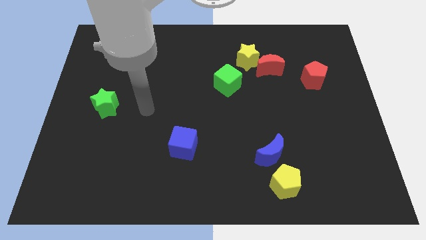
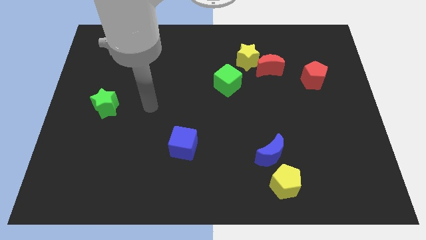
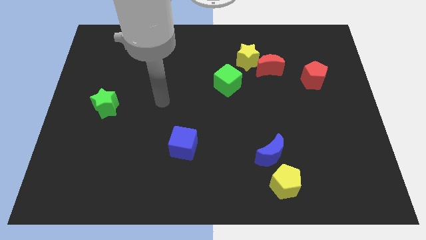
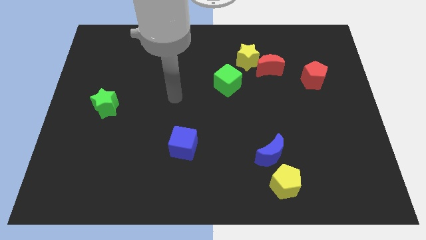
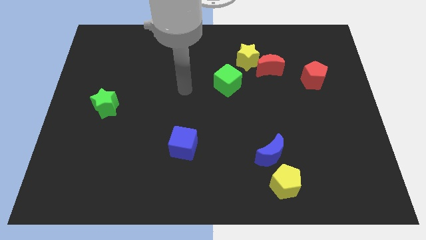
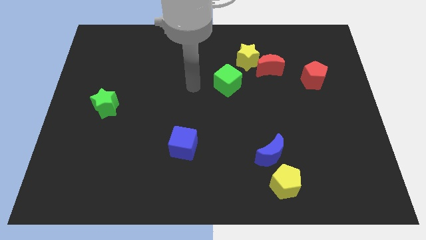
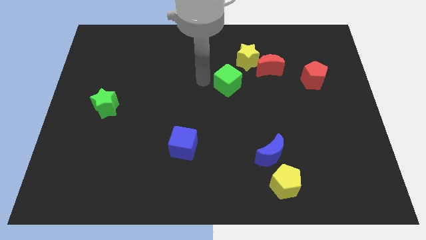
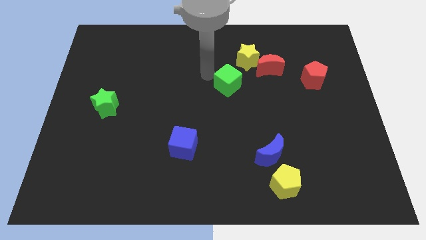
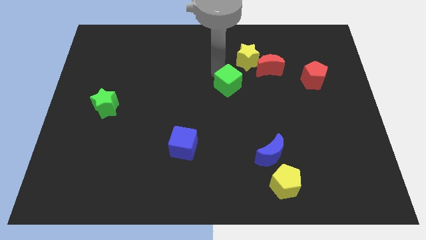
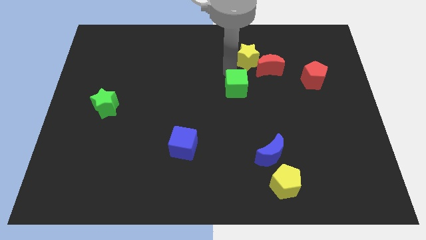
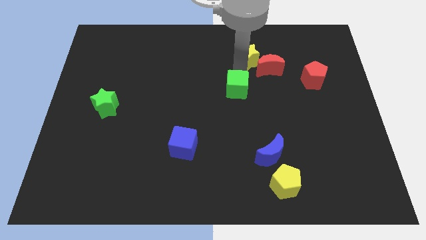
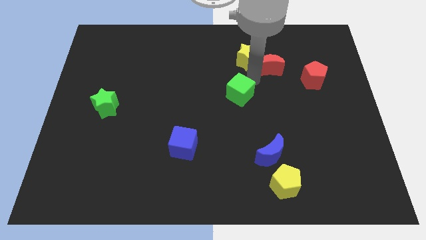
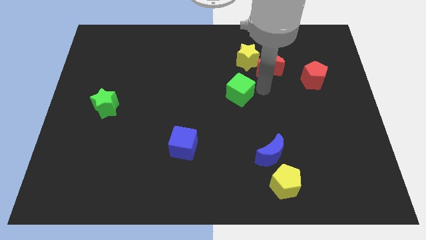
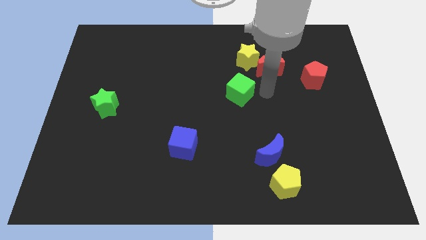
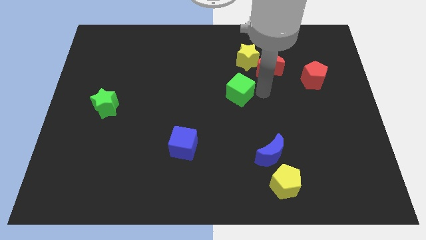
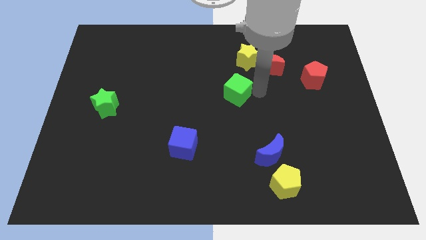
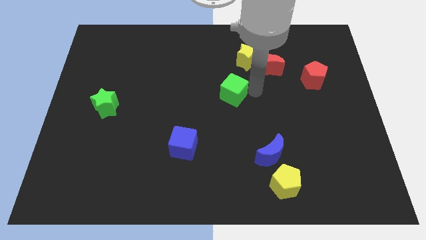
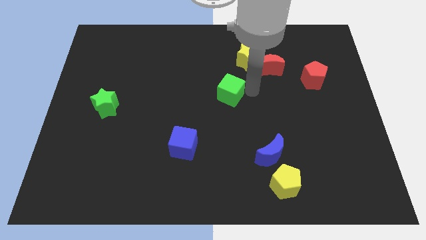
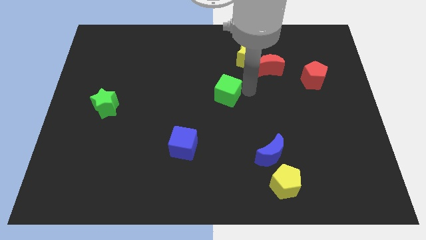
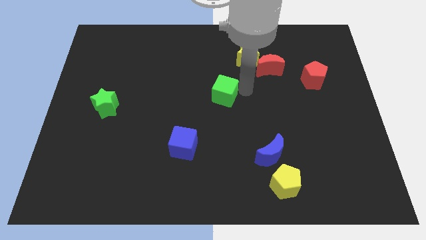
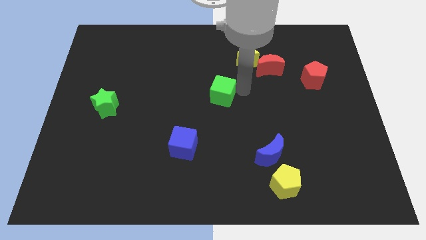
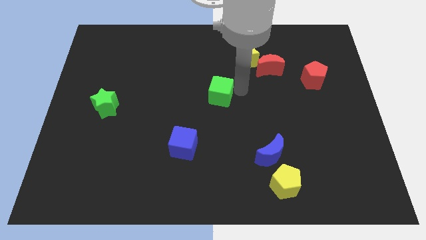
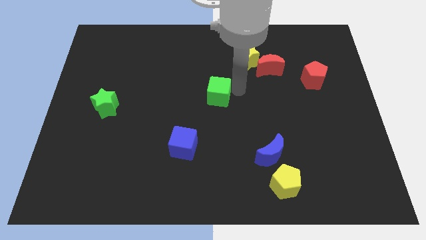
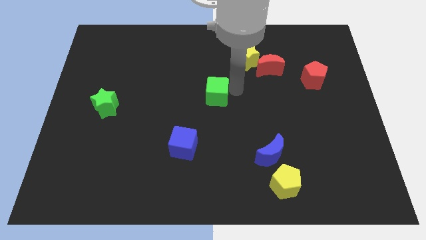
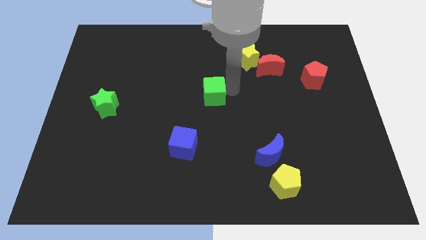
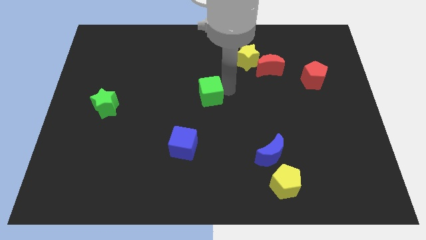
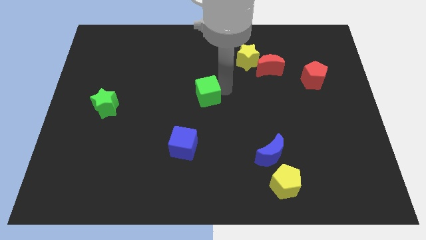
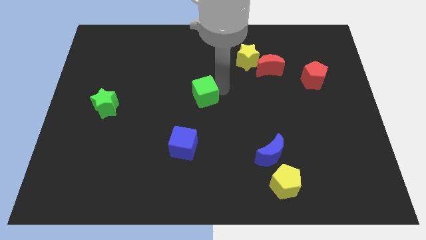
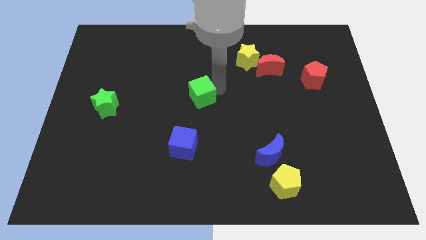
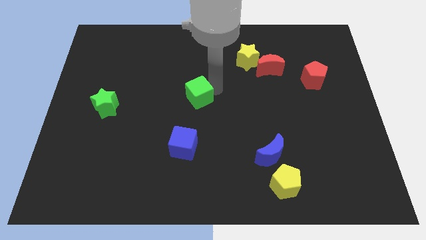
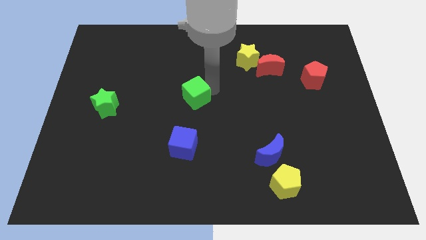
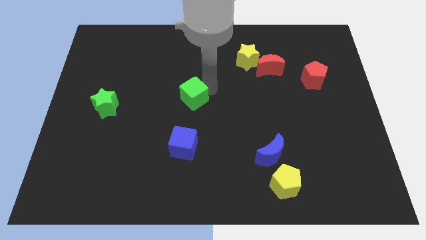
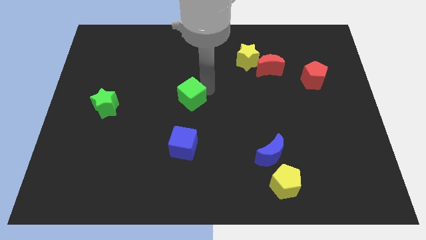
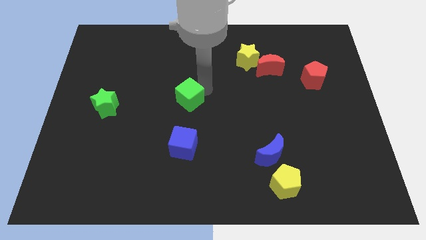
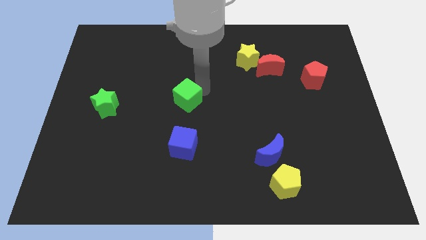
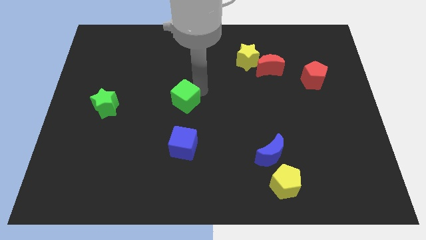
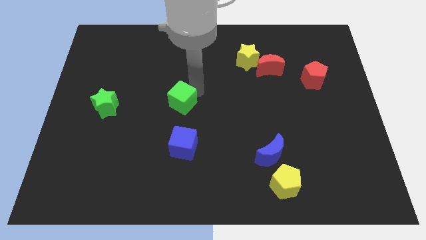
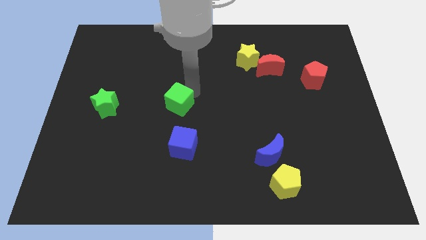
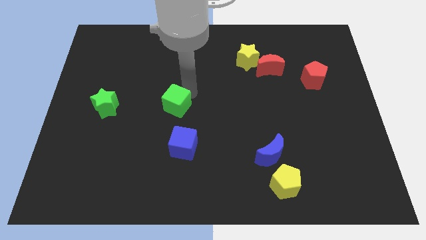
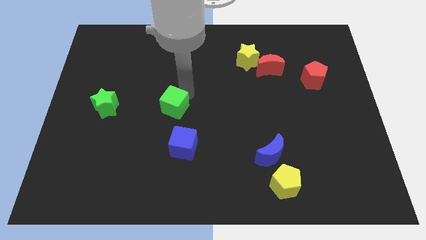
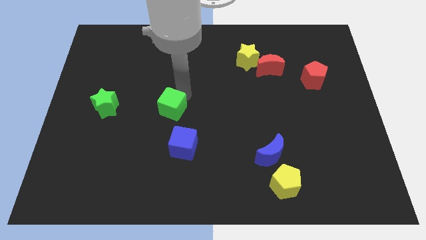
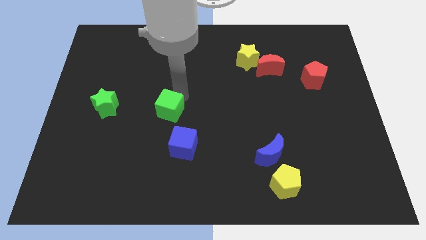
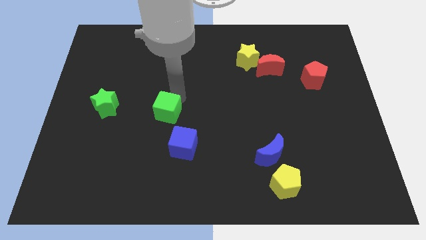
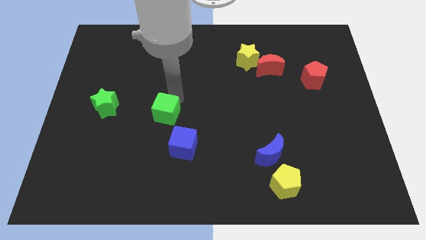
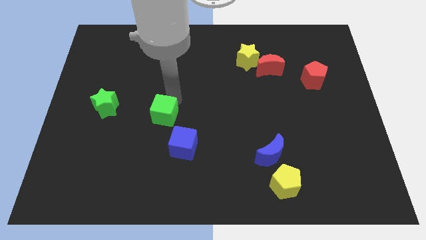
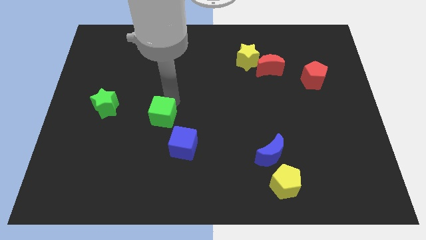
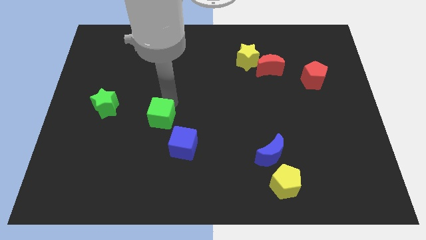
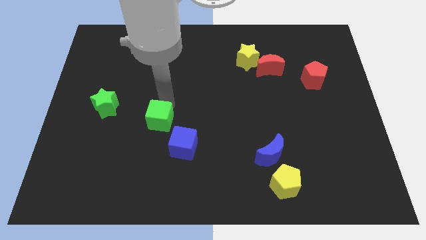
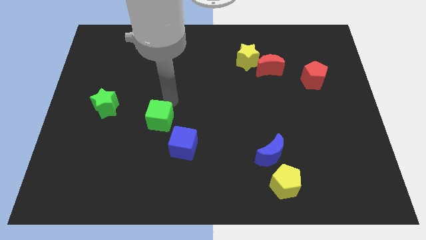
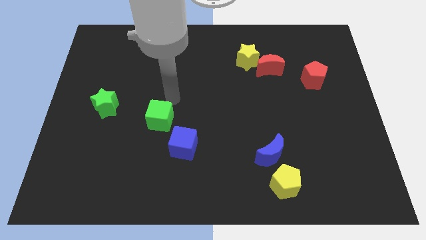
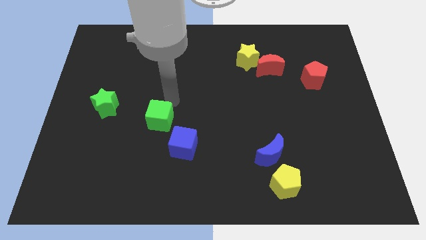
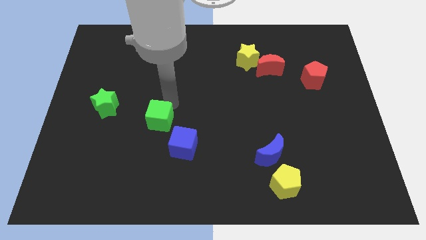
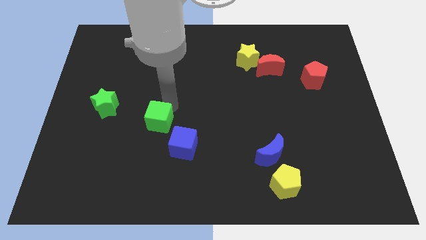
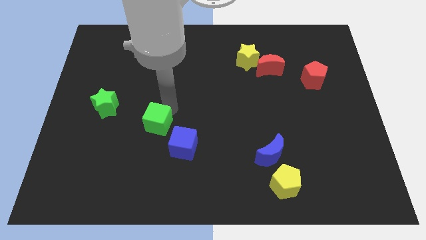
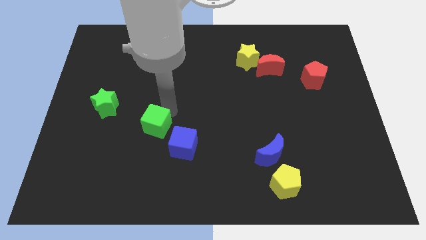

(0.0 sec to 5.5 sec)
push the green cube downwards and to the left diagonally

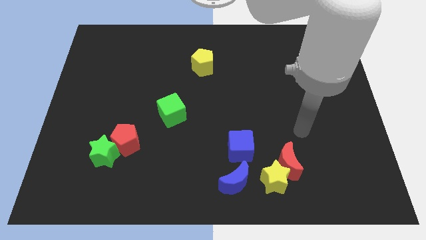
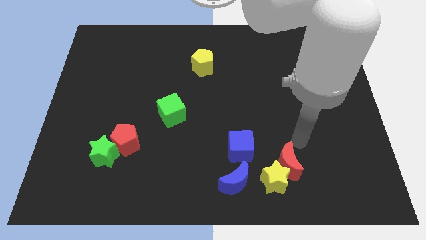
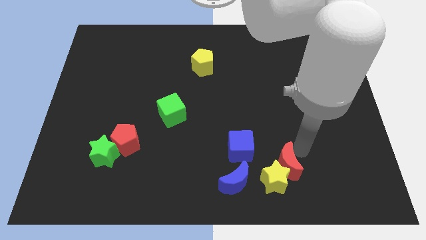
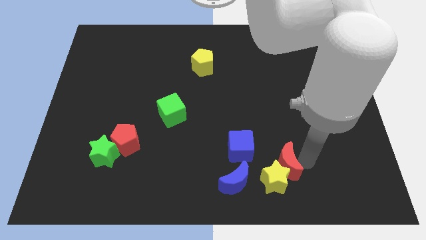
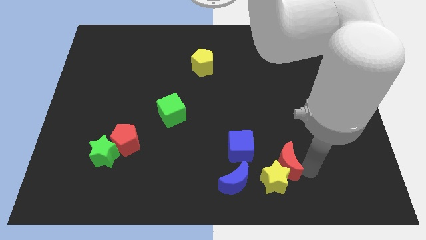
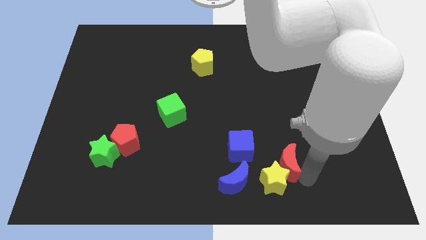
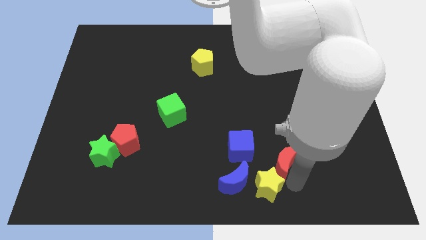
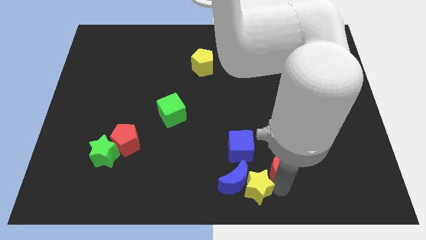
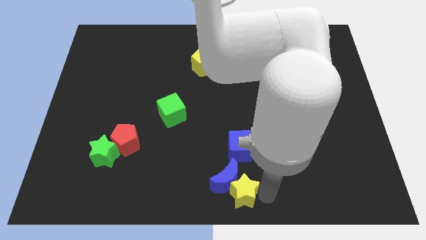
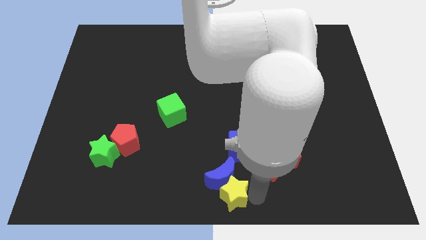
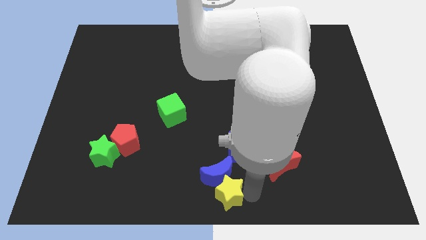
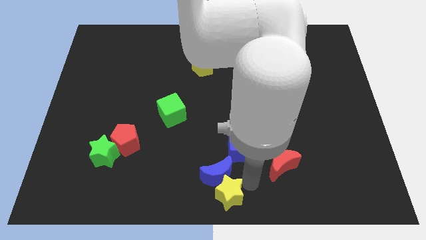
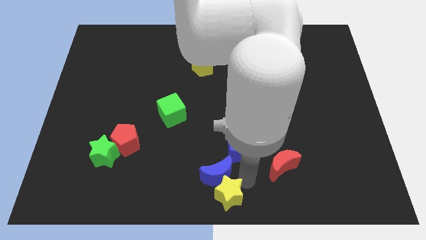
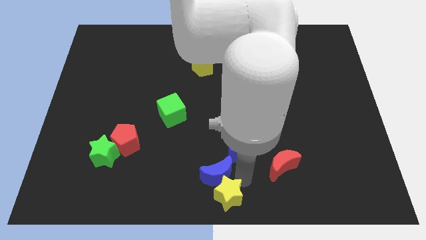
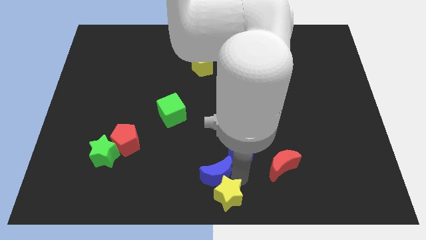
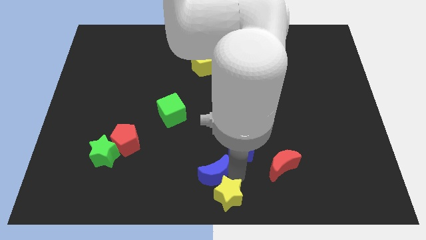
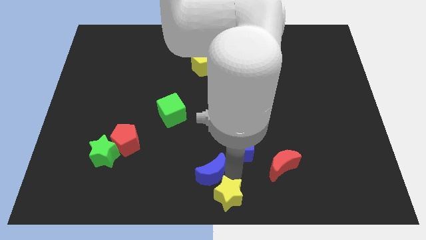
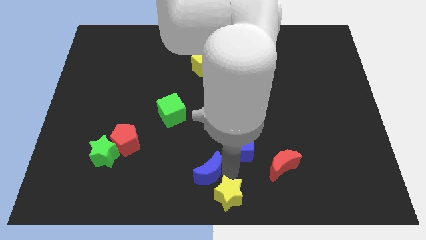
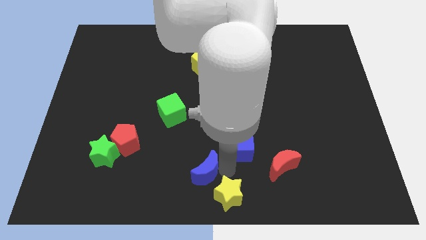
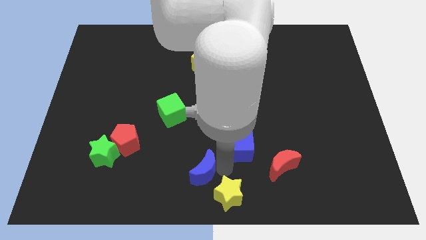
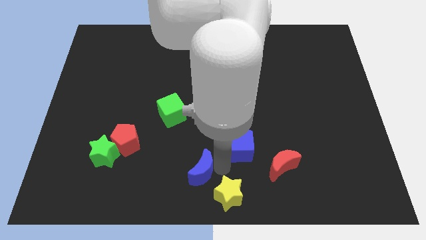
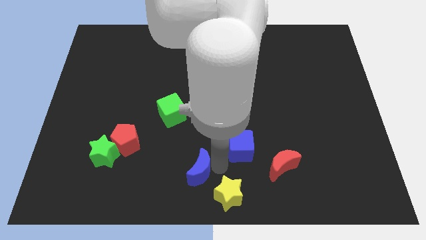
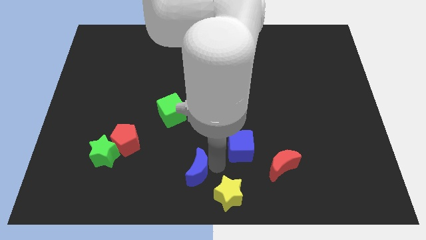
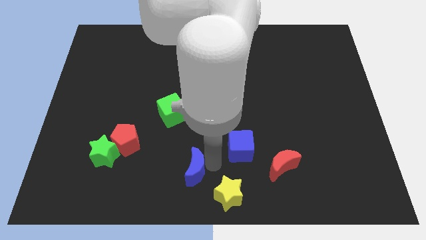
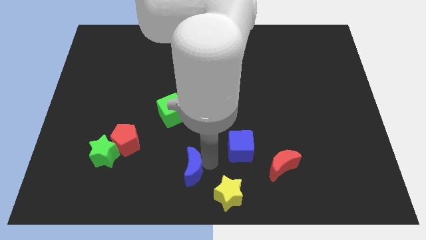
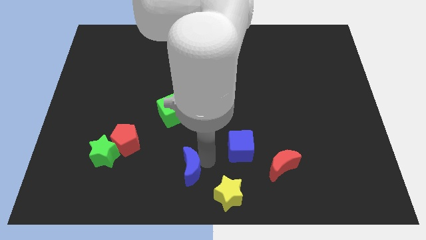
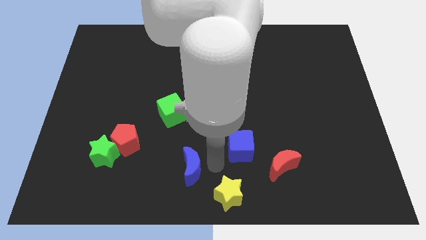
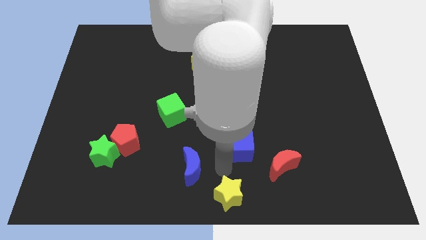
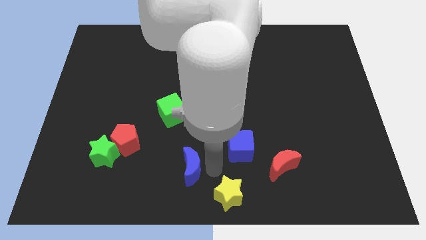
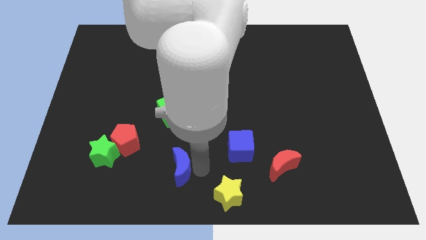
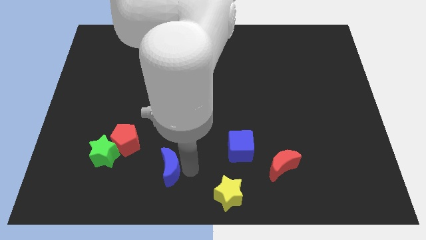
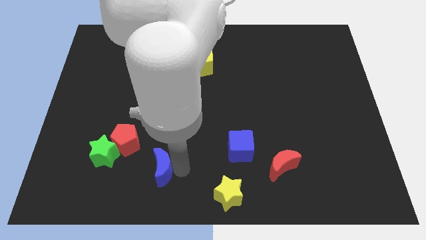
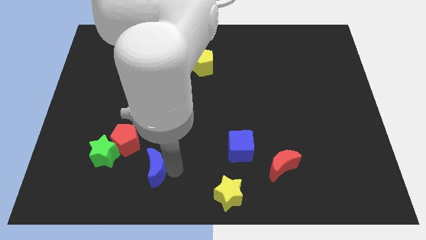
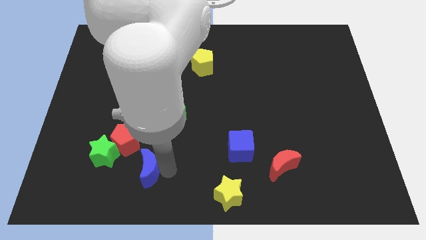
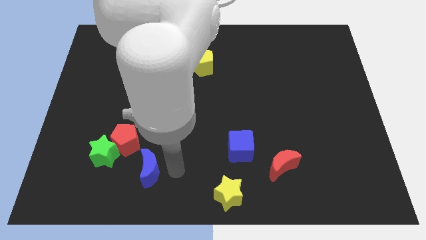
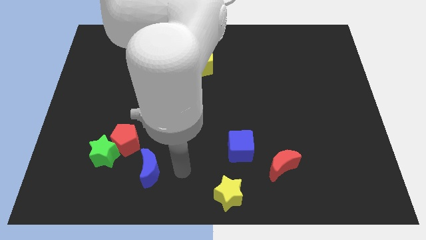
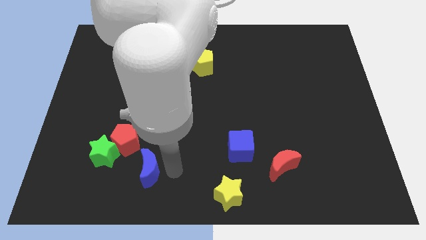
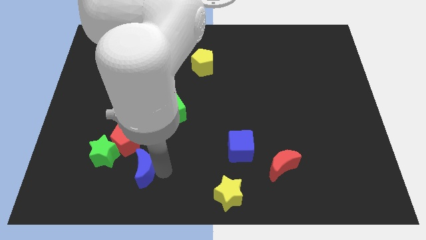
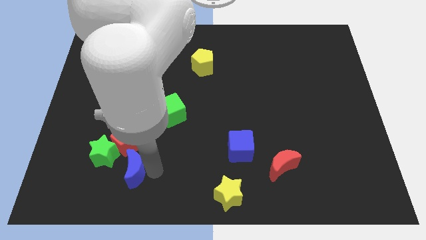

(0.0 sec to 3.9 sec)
move the blue moon to the left
